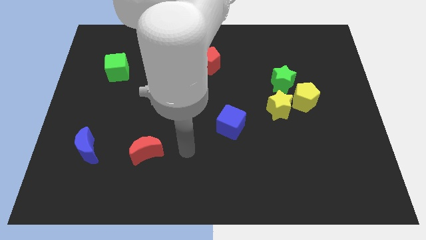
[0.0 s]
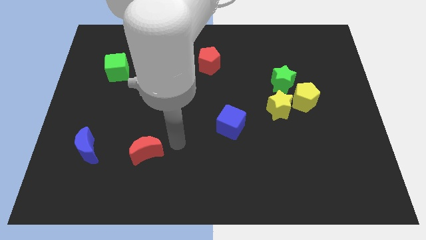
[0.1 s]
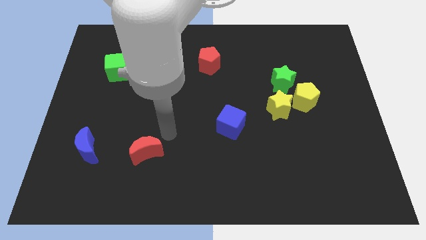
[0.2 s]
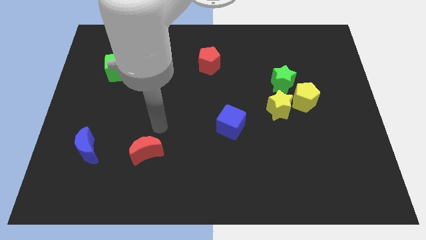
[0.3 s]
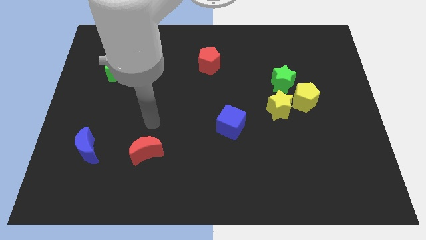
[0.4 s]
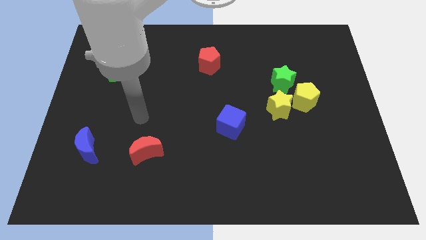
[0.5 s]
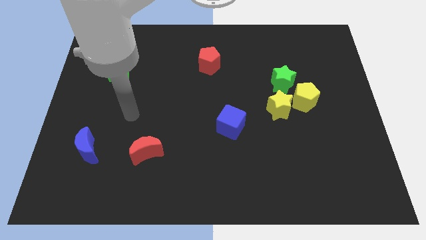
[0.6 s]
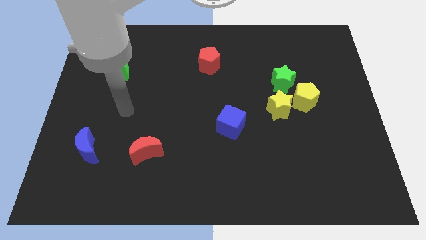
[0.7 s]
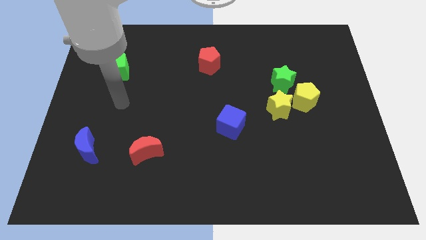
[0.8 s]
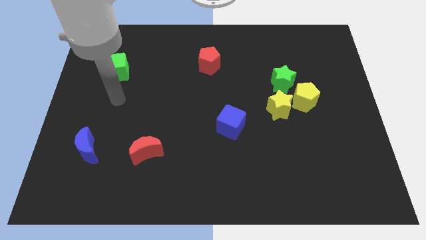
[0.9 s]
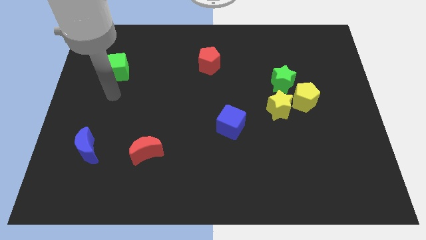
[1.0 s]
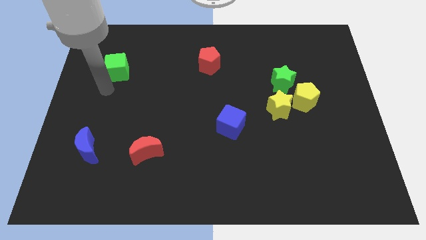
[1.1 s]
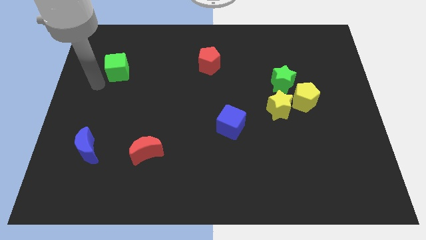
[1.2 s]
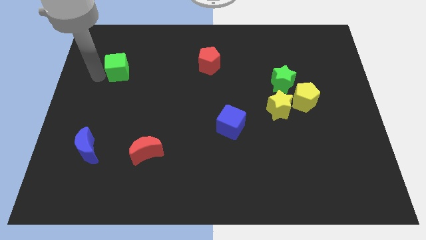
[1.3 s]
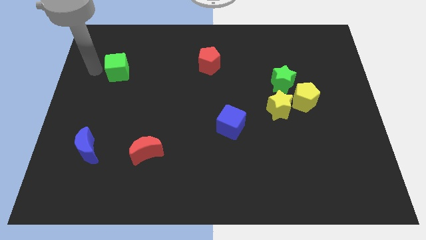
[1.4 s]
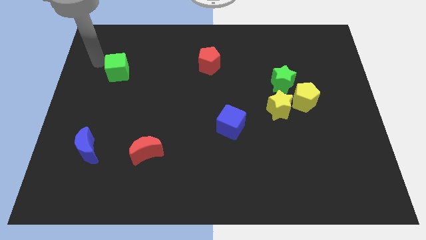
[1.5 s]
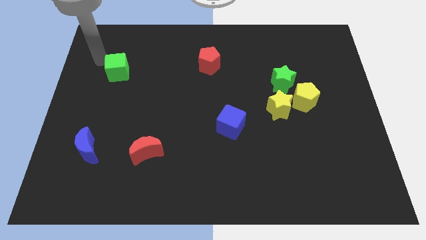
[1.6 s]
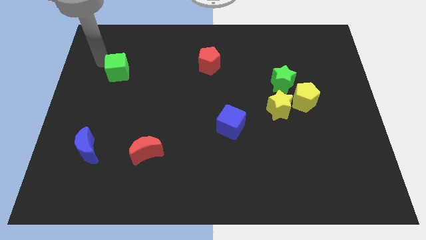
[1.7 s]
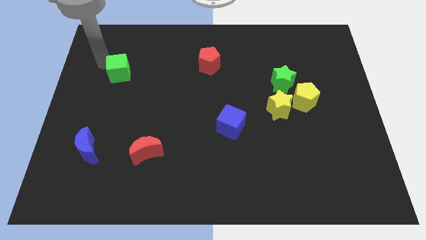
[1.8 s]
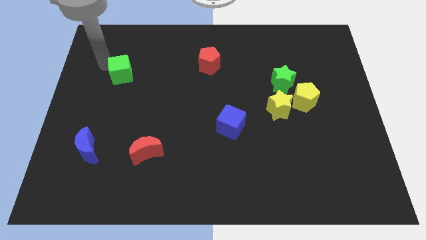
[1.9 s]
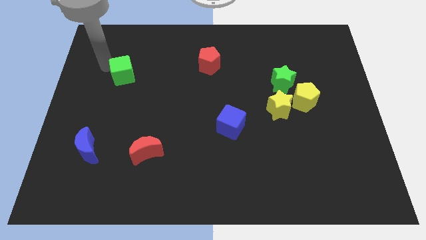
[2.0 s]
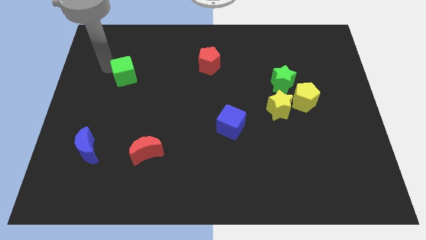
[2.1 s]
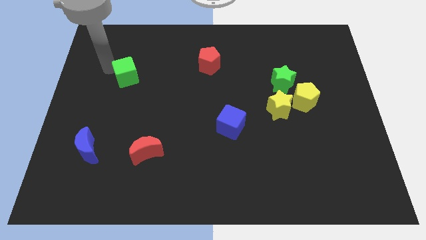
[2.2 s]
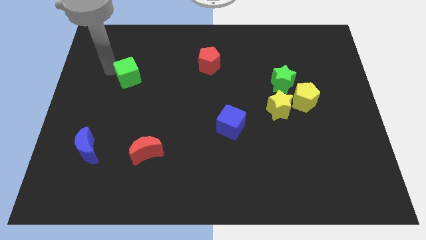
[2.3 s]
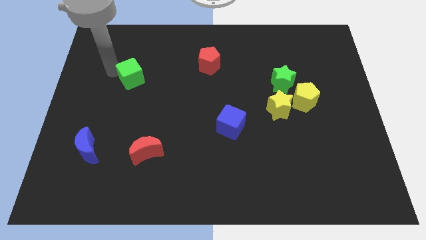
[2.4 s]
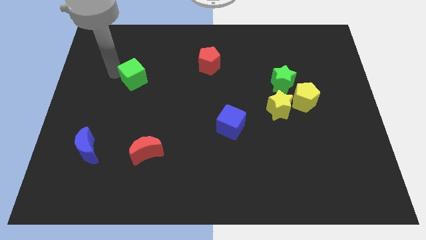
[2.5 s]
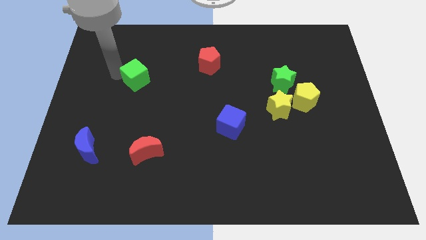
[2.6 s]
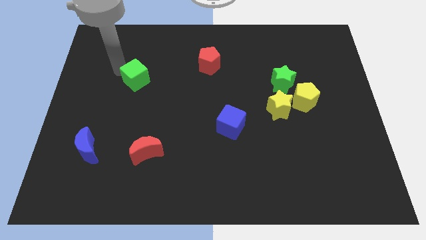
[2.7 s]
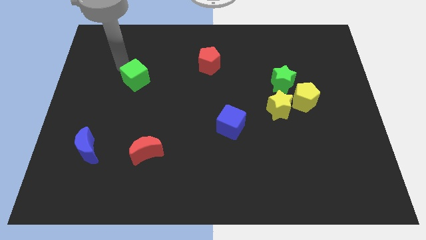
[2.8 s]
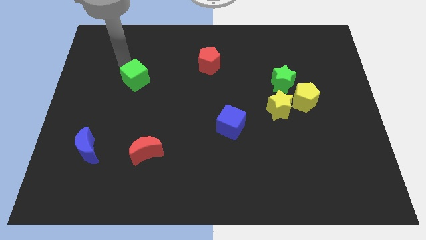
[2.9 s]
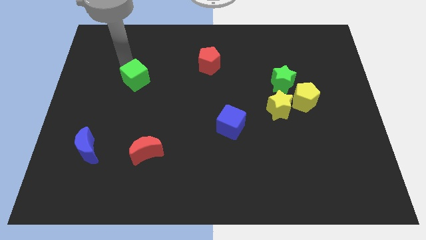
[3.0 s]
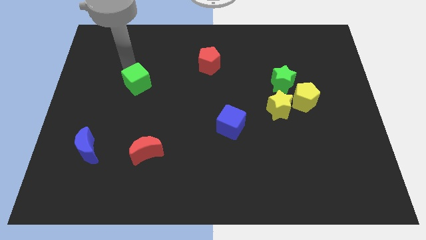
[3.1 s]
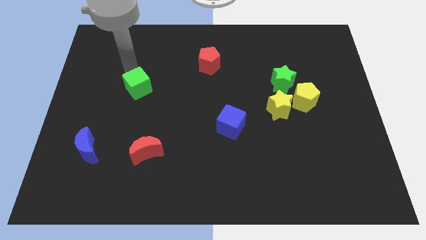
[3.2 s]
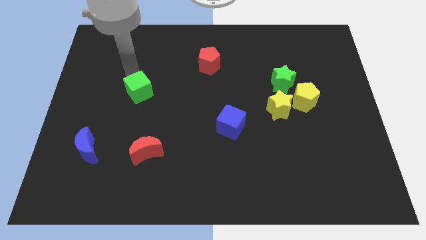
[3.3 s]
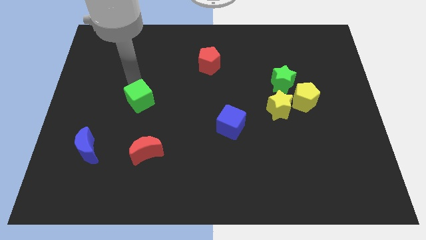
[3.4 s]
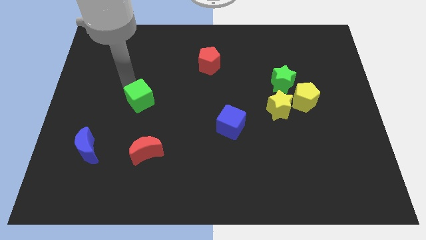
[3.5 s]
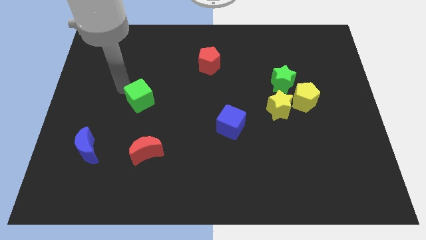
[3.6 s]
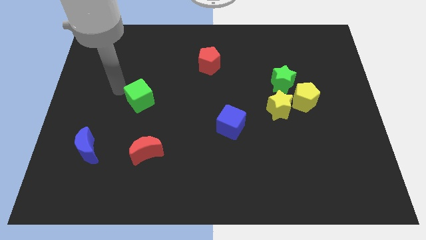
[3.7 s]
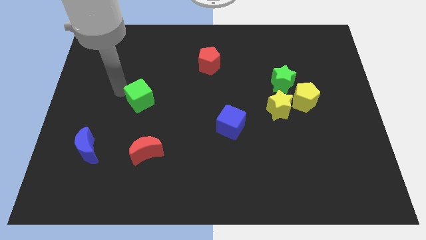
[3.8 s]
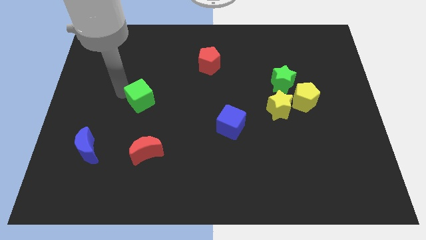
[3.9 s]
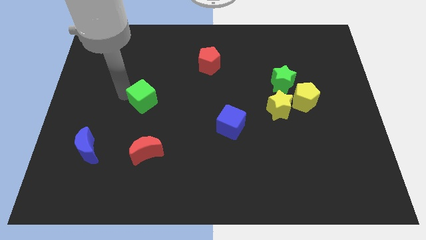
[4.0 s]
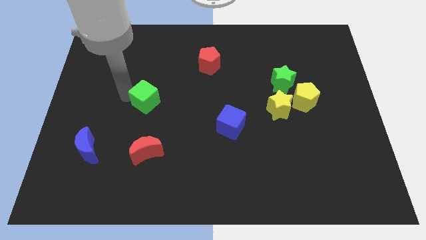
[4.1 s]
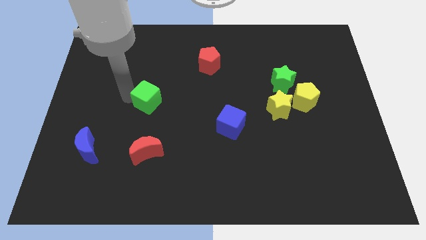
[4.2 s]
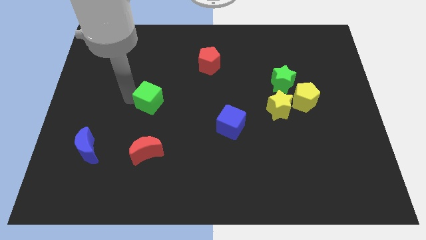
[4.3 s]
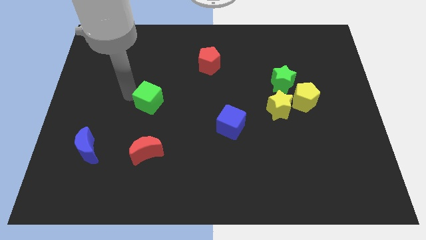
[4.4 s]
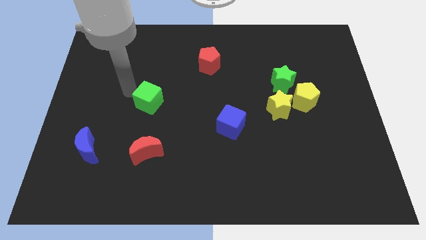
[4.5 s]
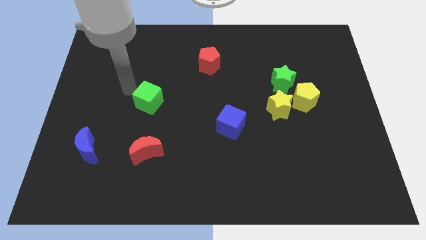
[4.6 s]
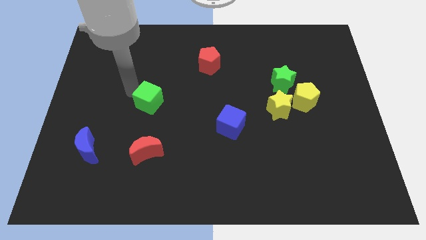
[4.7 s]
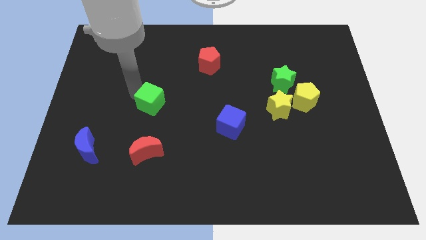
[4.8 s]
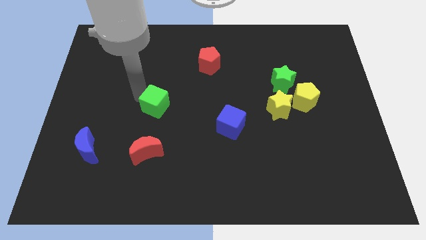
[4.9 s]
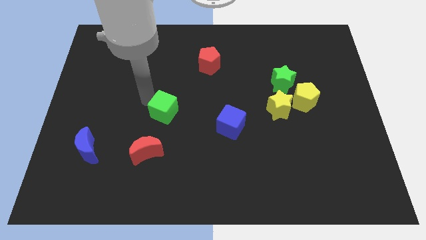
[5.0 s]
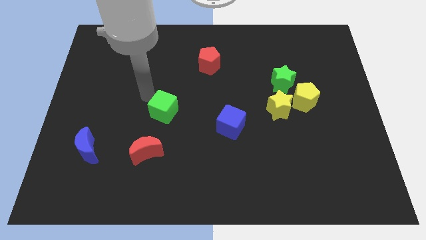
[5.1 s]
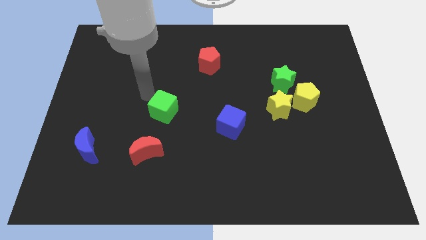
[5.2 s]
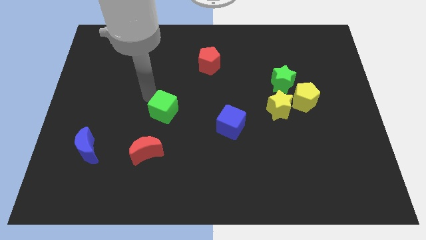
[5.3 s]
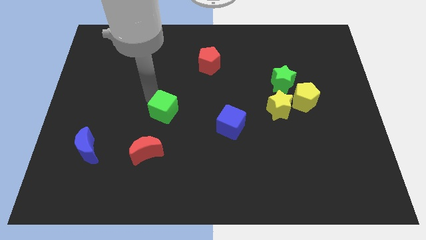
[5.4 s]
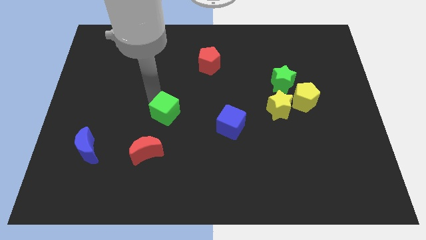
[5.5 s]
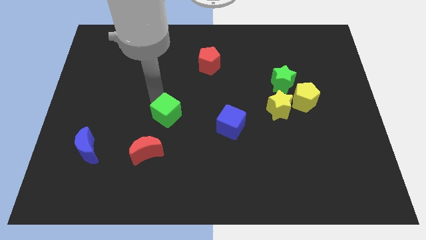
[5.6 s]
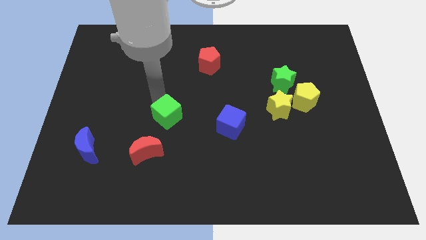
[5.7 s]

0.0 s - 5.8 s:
move the green cube down and then right

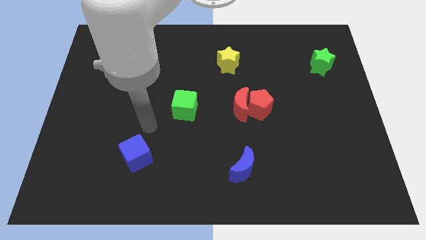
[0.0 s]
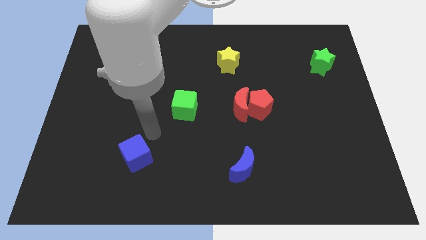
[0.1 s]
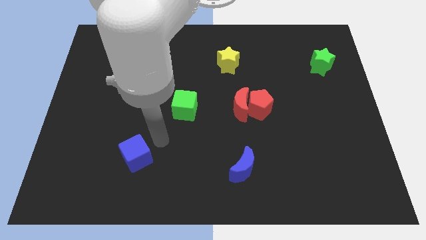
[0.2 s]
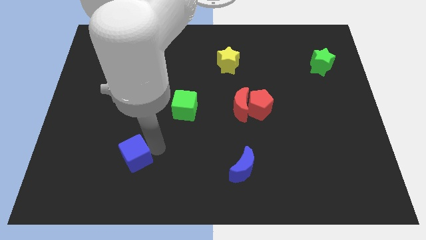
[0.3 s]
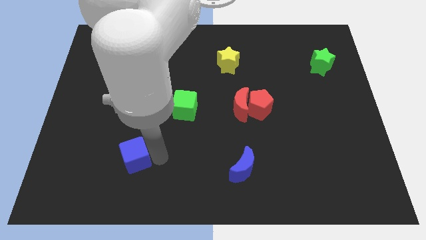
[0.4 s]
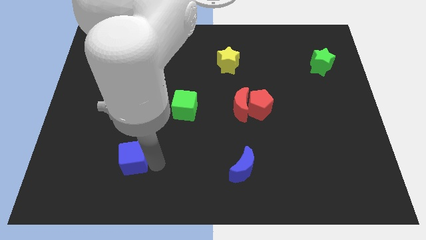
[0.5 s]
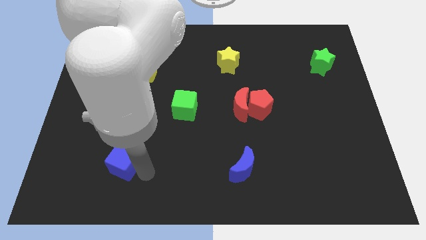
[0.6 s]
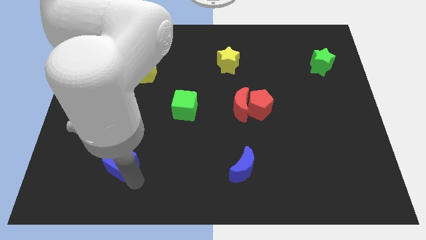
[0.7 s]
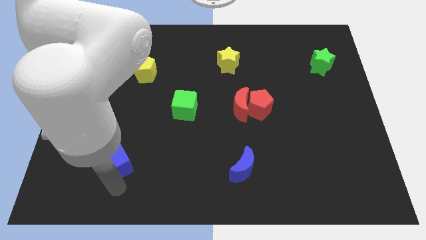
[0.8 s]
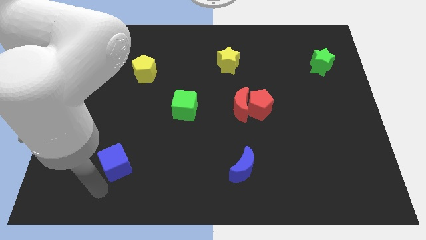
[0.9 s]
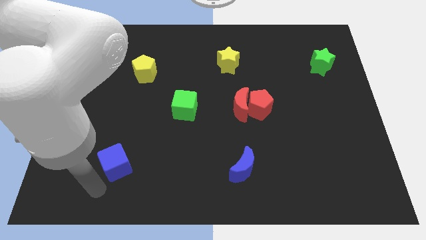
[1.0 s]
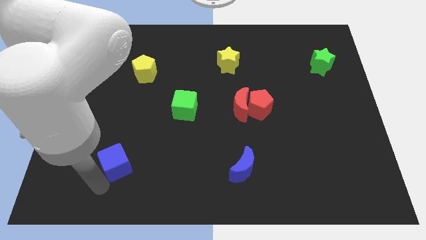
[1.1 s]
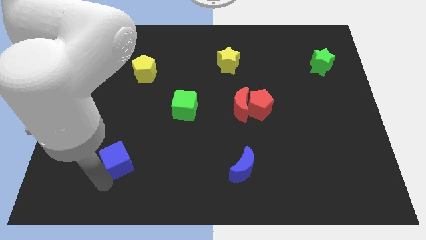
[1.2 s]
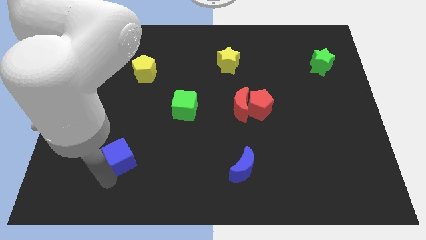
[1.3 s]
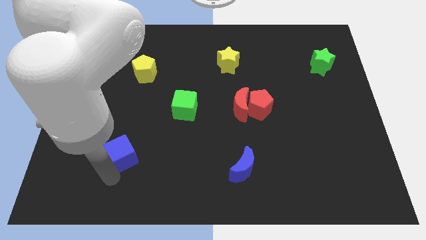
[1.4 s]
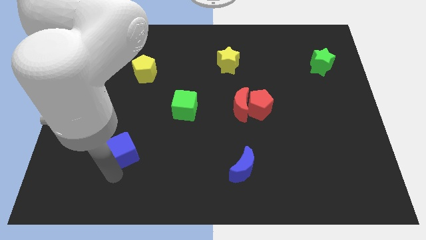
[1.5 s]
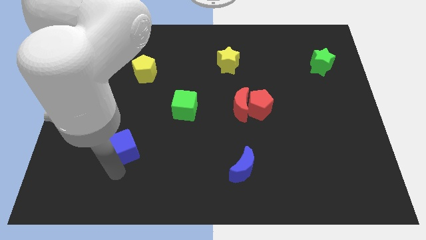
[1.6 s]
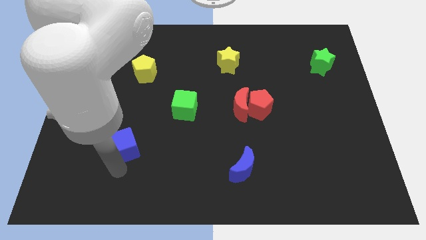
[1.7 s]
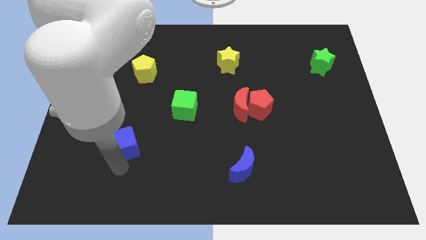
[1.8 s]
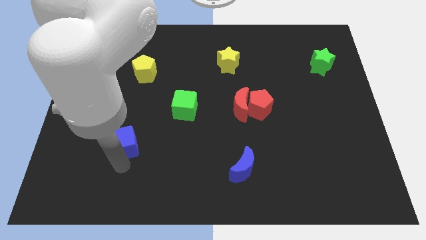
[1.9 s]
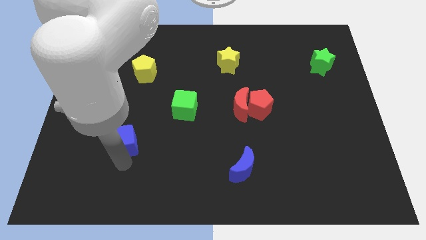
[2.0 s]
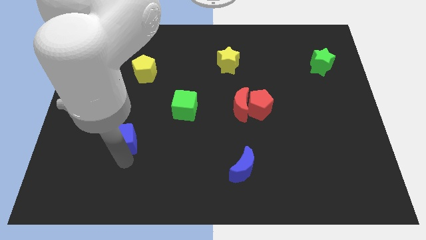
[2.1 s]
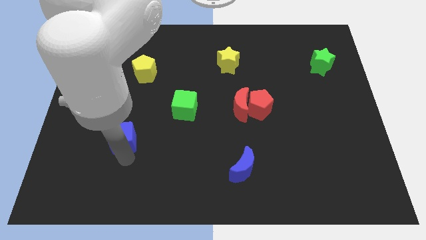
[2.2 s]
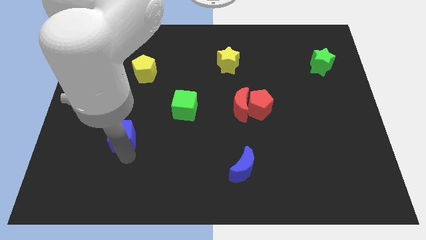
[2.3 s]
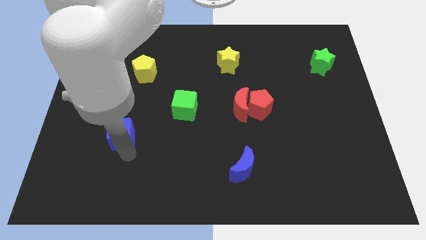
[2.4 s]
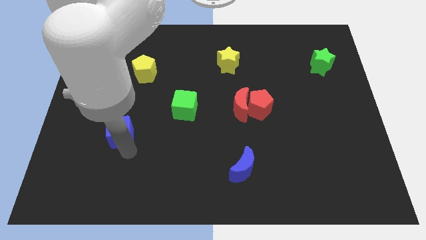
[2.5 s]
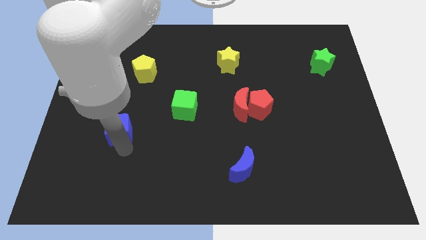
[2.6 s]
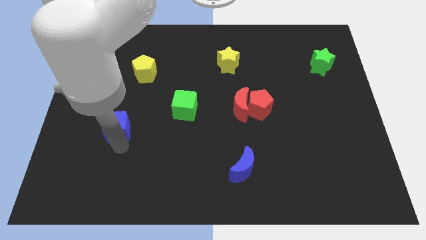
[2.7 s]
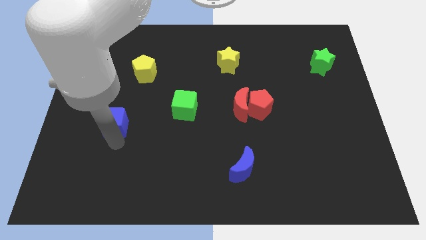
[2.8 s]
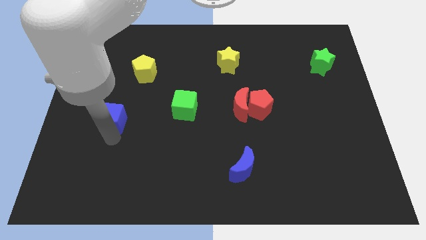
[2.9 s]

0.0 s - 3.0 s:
slightly slide the blue cube up
